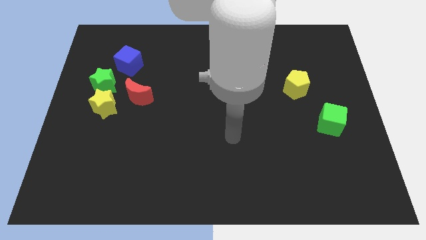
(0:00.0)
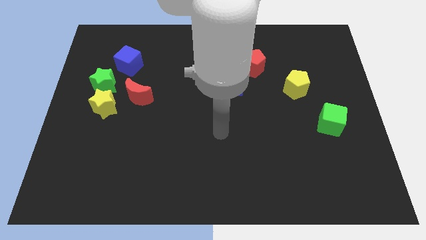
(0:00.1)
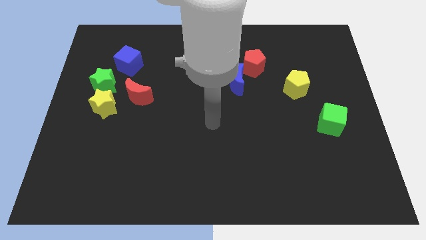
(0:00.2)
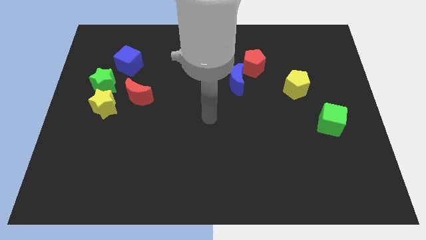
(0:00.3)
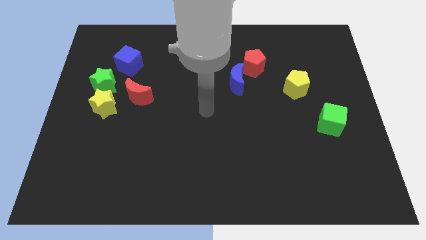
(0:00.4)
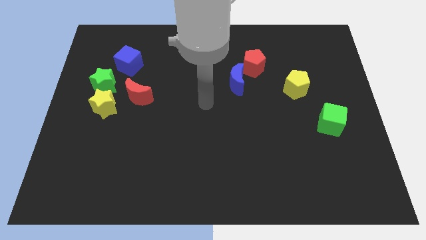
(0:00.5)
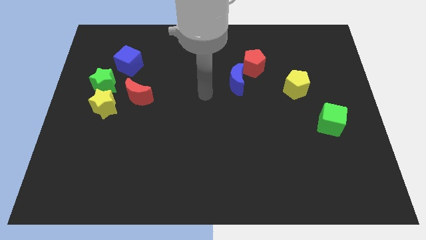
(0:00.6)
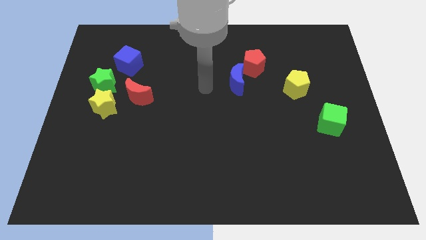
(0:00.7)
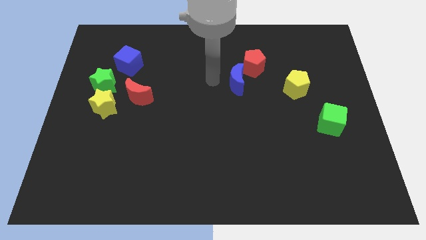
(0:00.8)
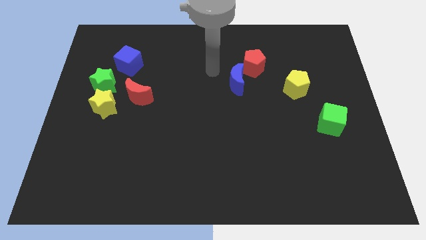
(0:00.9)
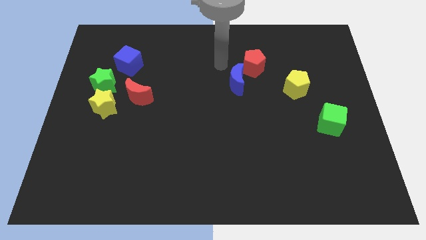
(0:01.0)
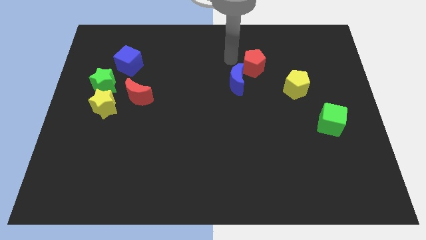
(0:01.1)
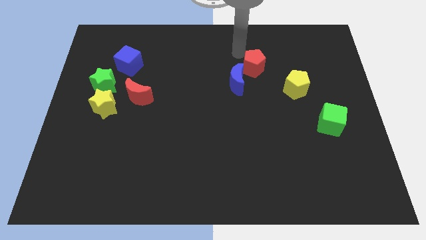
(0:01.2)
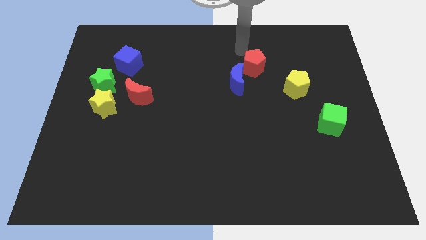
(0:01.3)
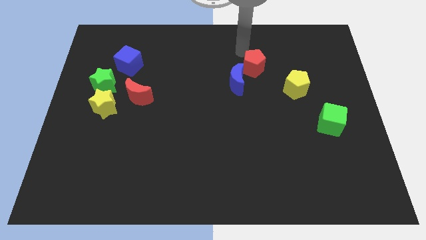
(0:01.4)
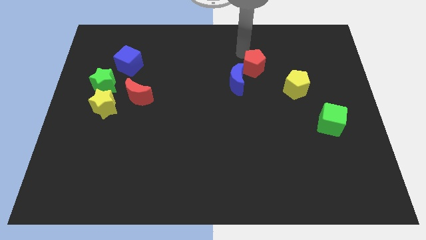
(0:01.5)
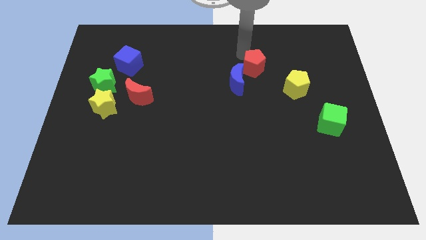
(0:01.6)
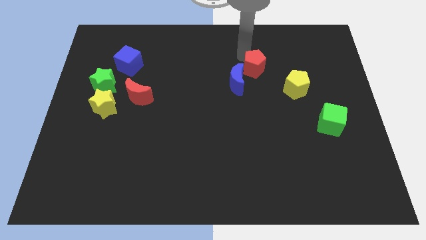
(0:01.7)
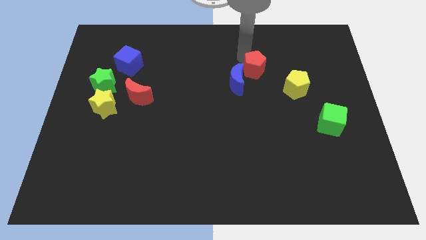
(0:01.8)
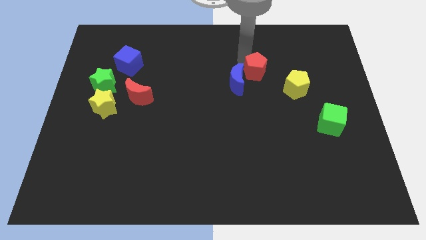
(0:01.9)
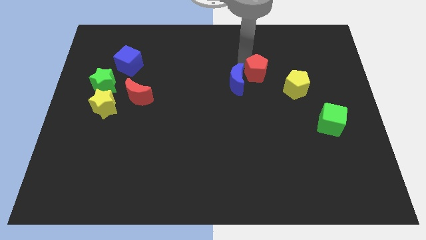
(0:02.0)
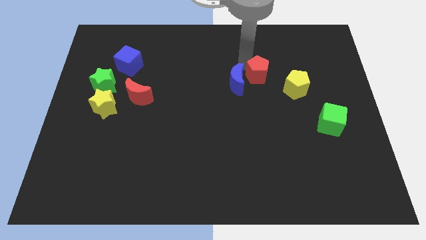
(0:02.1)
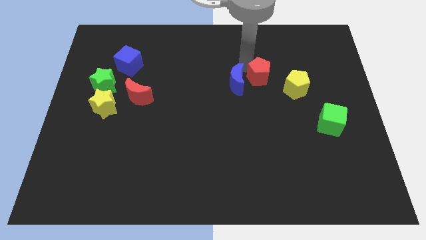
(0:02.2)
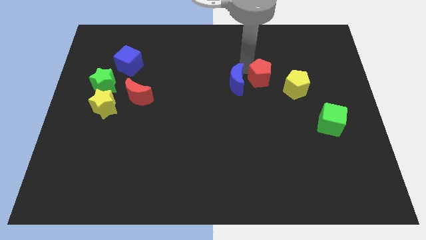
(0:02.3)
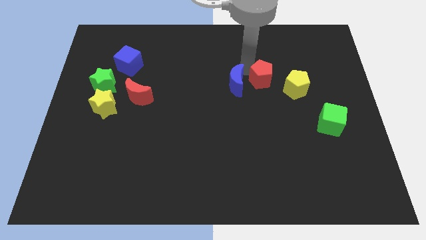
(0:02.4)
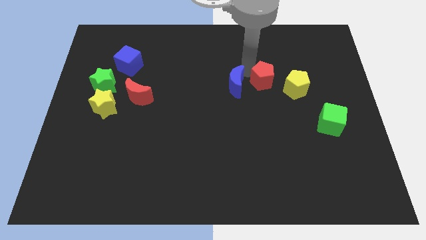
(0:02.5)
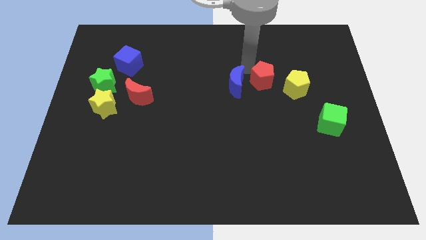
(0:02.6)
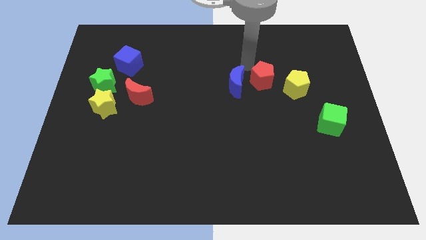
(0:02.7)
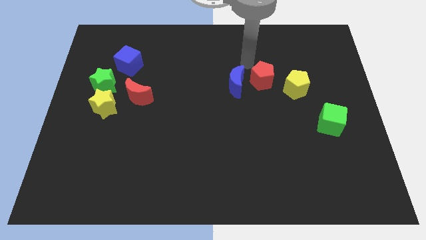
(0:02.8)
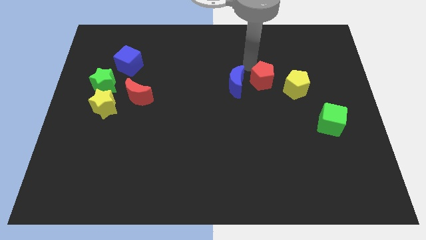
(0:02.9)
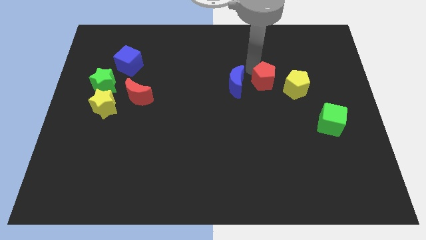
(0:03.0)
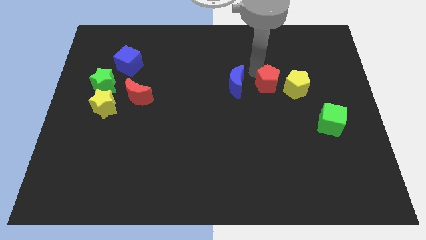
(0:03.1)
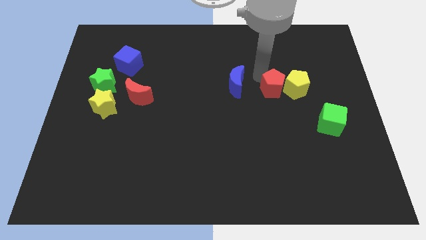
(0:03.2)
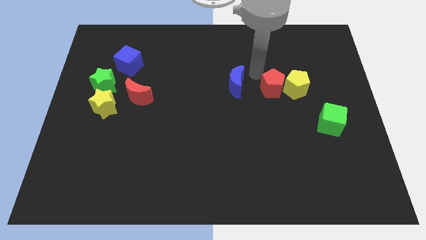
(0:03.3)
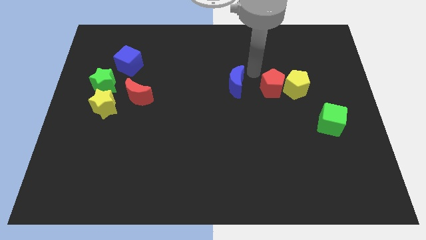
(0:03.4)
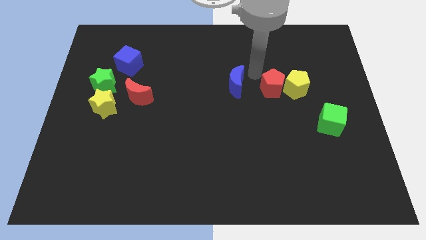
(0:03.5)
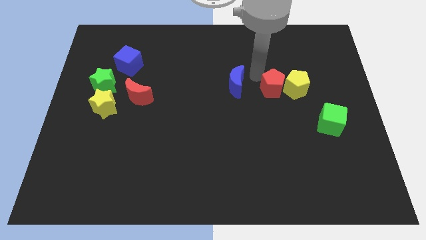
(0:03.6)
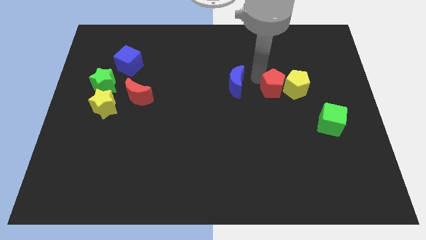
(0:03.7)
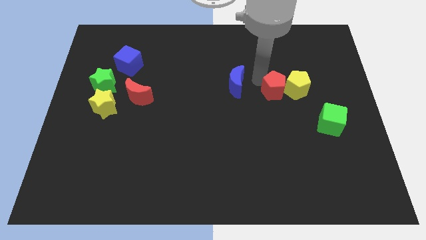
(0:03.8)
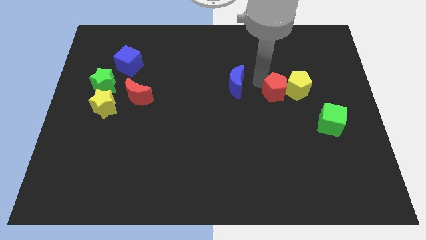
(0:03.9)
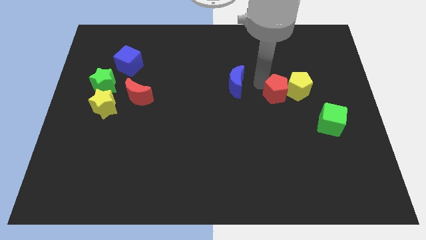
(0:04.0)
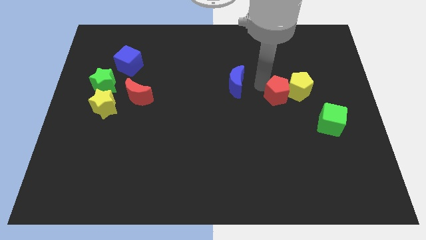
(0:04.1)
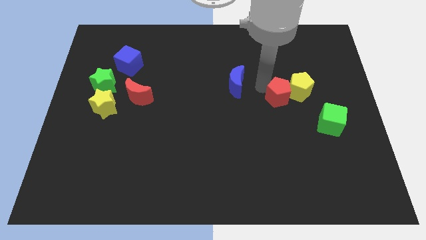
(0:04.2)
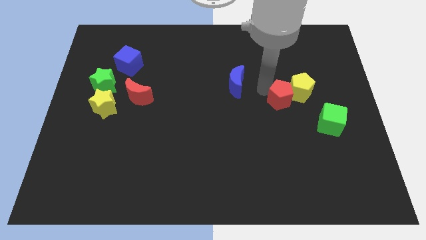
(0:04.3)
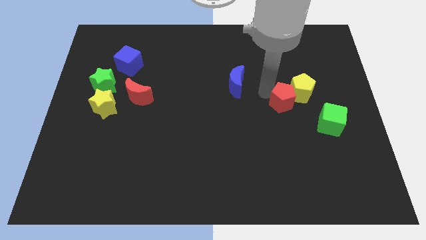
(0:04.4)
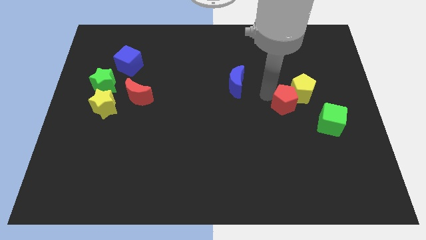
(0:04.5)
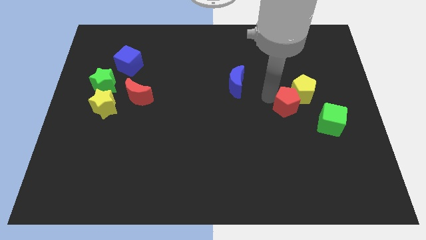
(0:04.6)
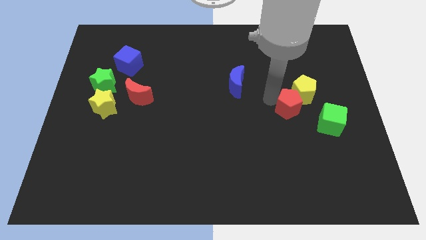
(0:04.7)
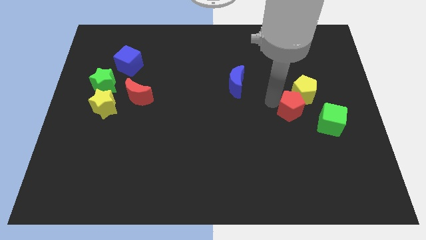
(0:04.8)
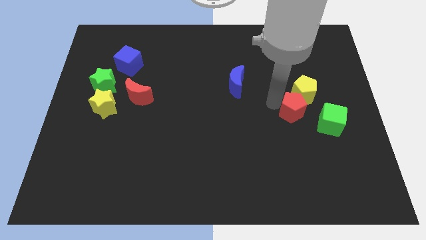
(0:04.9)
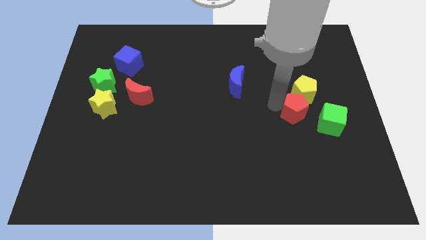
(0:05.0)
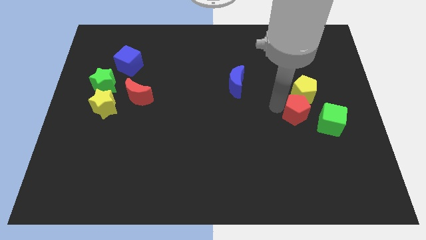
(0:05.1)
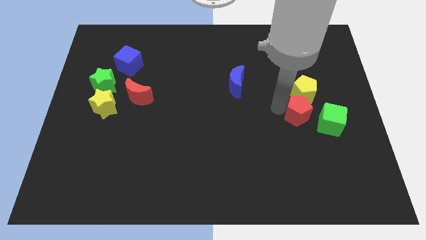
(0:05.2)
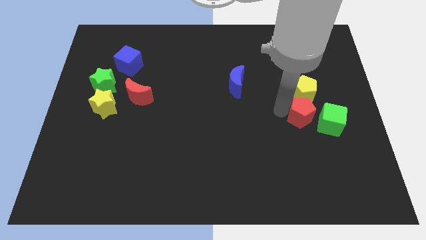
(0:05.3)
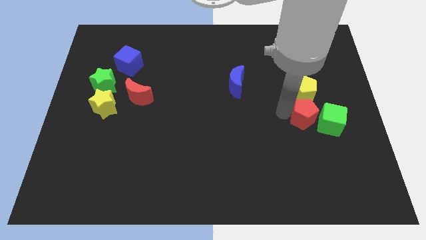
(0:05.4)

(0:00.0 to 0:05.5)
slide the red pentagon close to the green cube

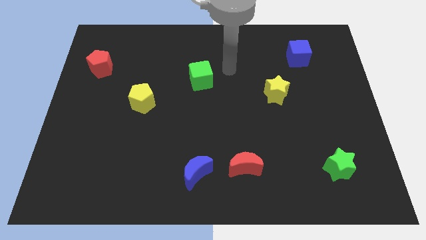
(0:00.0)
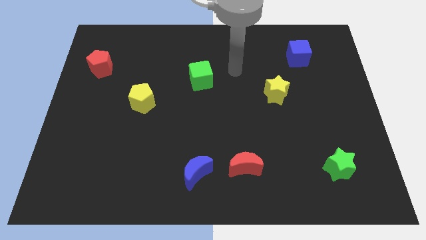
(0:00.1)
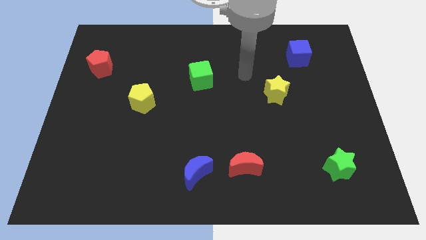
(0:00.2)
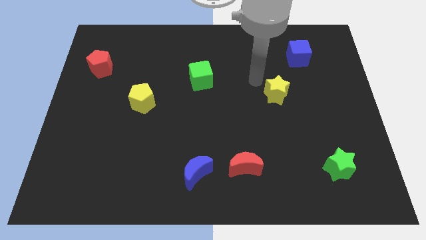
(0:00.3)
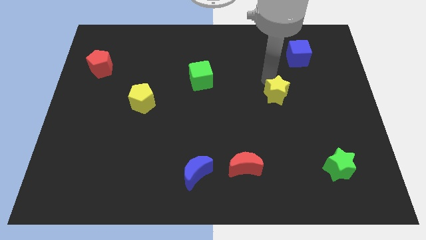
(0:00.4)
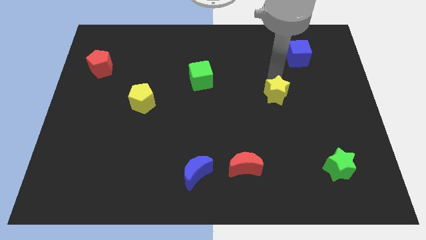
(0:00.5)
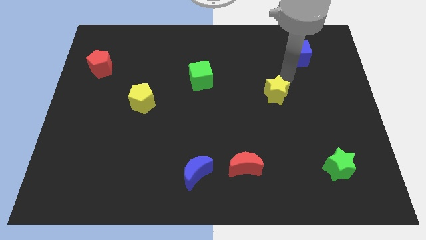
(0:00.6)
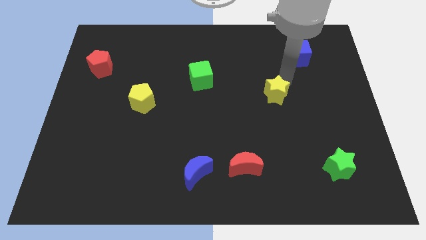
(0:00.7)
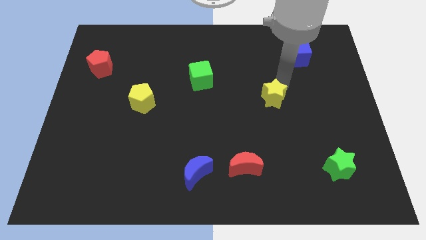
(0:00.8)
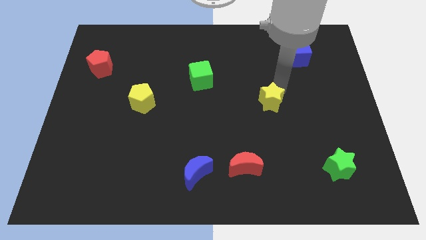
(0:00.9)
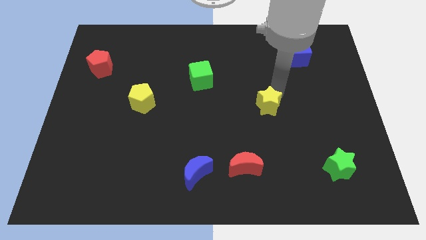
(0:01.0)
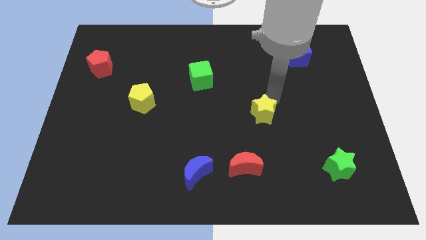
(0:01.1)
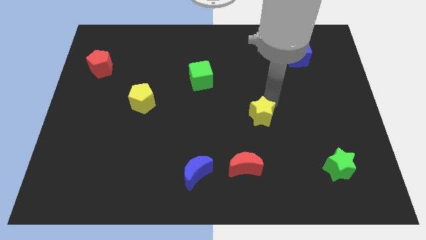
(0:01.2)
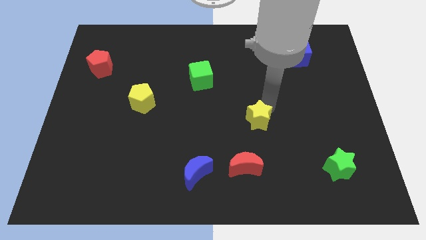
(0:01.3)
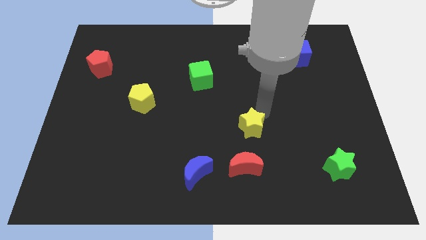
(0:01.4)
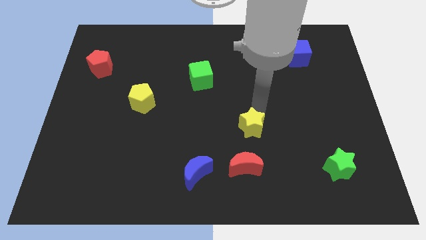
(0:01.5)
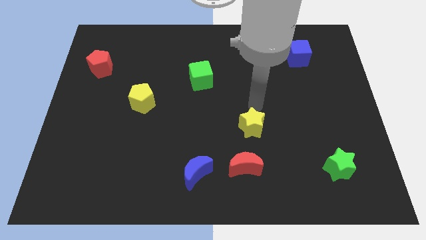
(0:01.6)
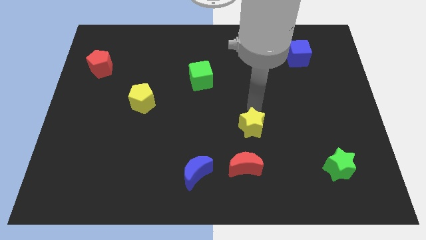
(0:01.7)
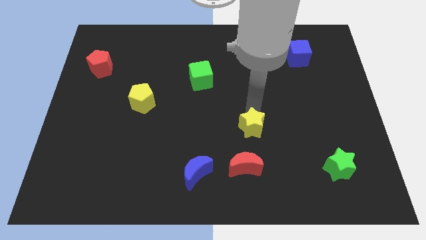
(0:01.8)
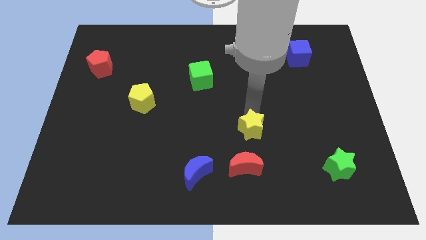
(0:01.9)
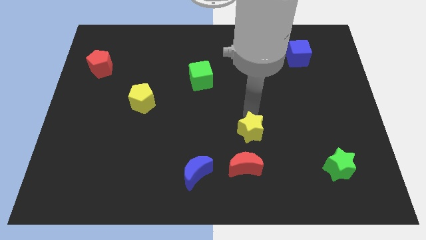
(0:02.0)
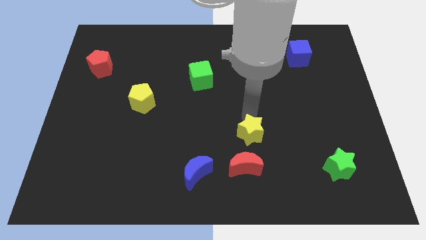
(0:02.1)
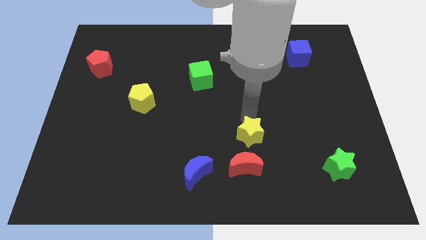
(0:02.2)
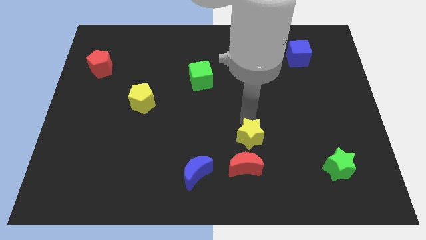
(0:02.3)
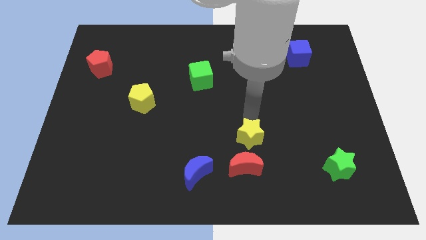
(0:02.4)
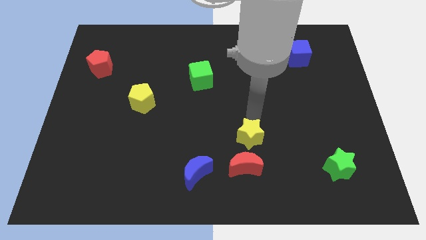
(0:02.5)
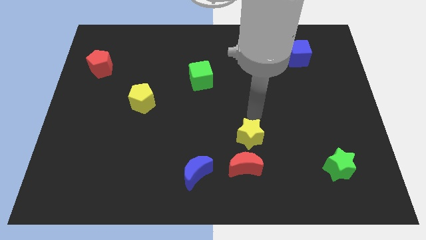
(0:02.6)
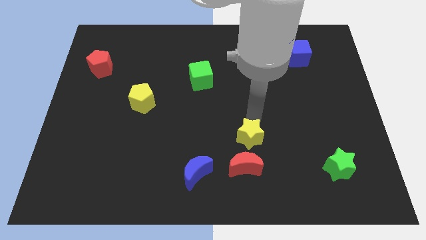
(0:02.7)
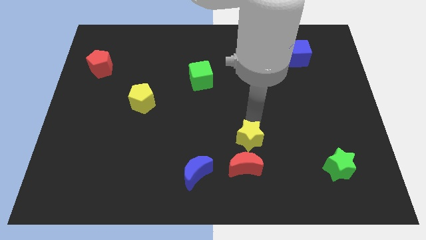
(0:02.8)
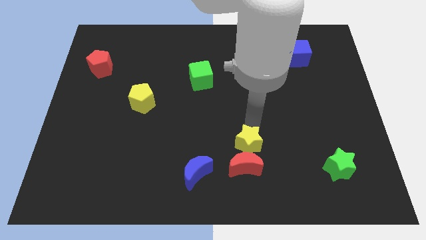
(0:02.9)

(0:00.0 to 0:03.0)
push the yellow star towards the red moon
